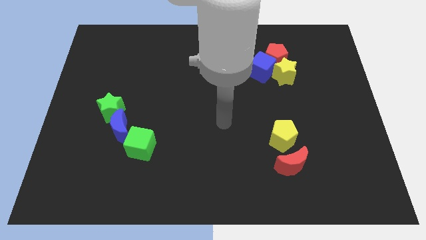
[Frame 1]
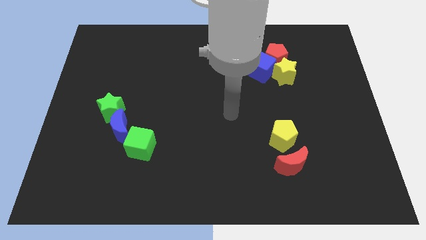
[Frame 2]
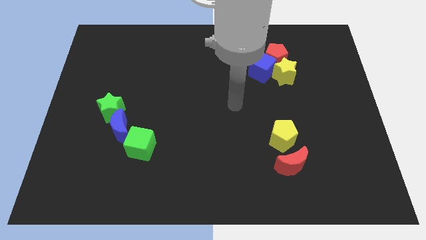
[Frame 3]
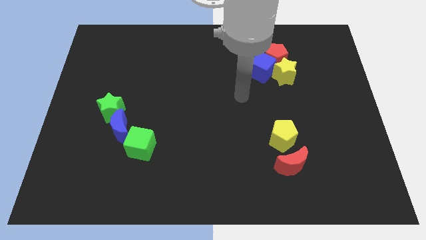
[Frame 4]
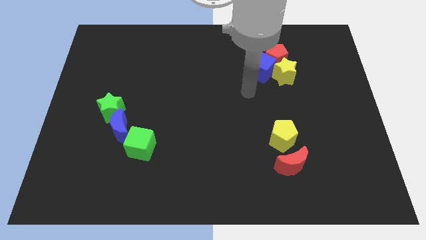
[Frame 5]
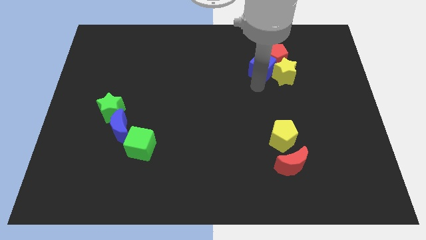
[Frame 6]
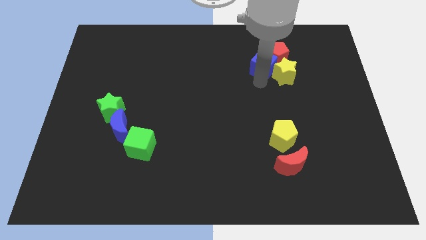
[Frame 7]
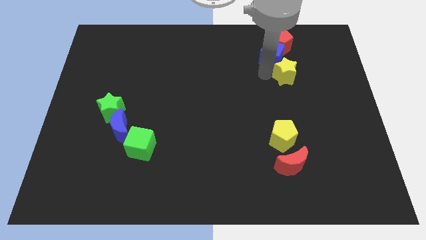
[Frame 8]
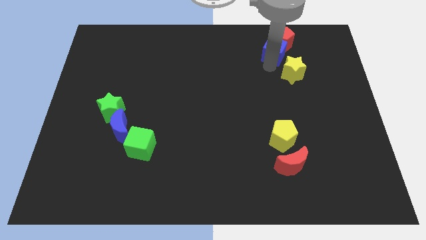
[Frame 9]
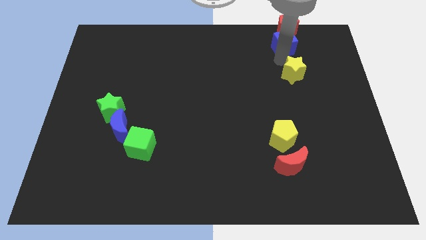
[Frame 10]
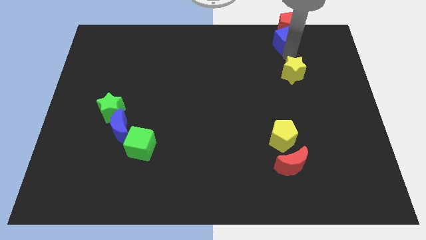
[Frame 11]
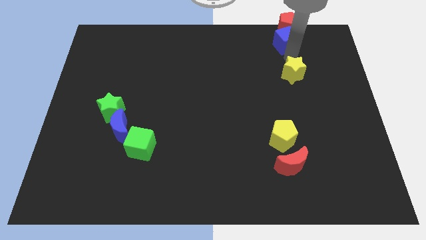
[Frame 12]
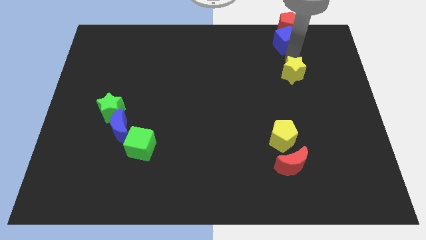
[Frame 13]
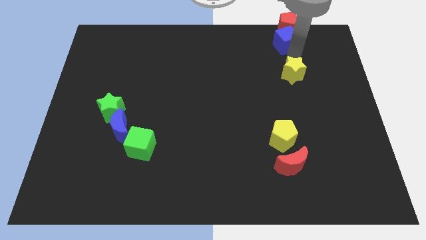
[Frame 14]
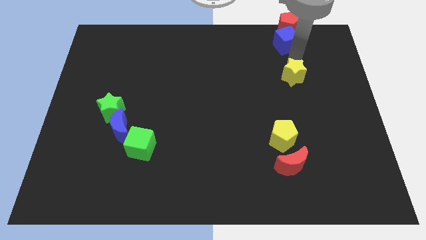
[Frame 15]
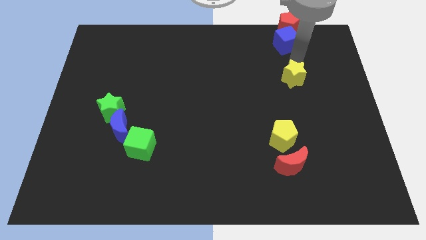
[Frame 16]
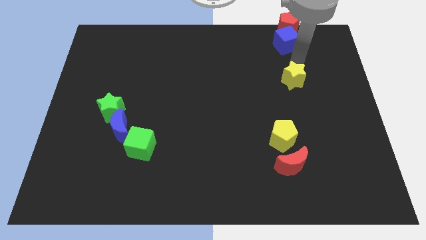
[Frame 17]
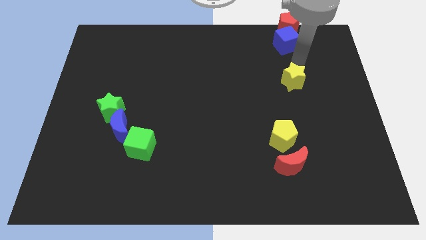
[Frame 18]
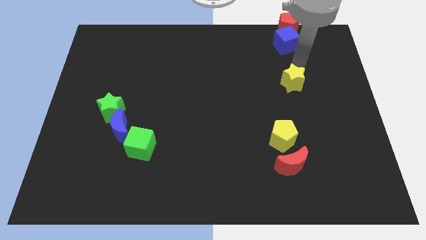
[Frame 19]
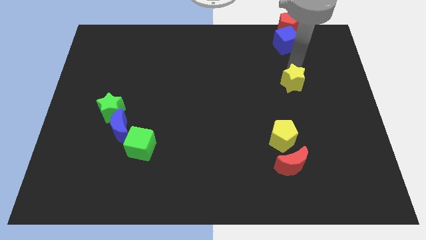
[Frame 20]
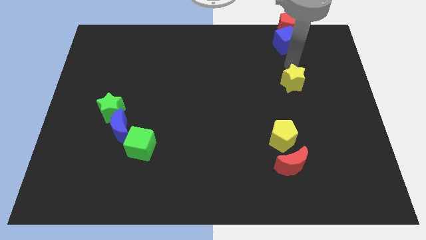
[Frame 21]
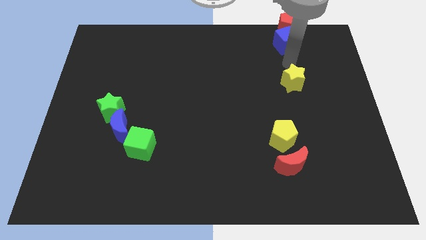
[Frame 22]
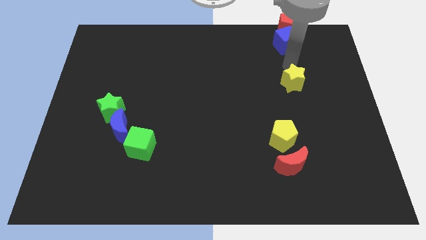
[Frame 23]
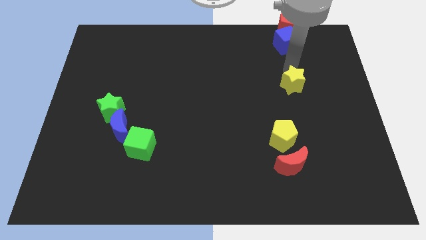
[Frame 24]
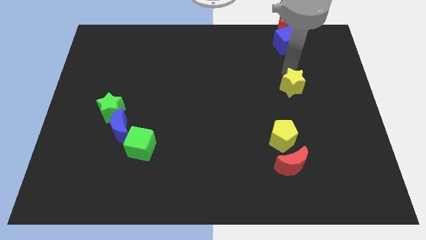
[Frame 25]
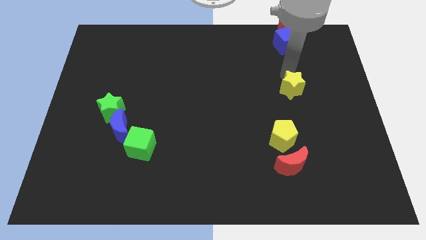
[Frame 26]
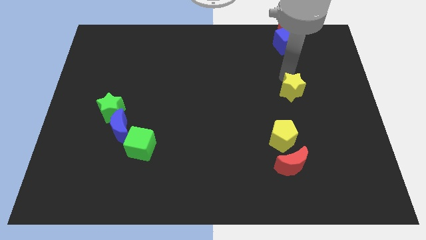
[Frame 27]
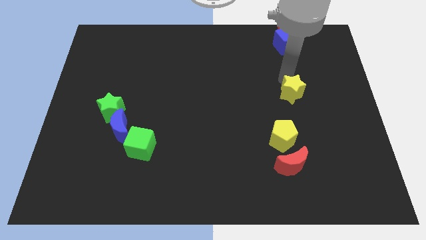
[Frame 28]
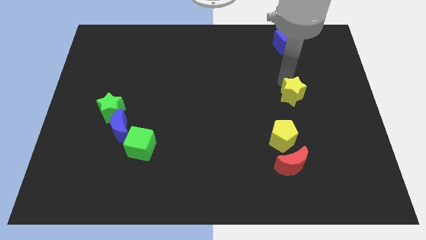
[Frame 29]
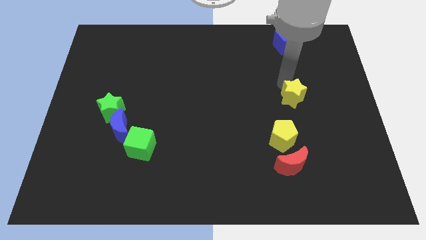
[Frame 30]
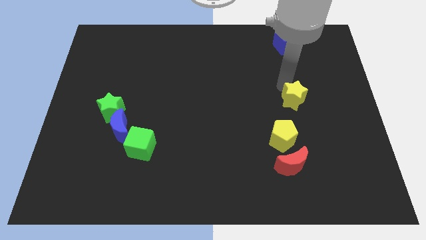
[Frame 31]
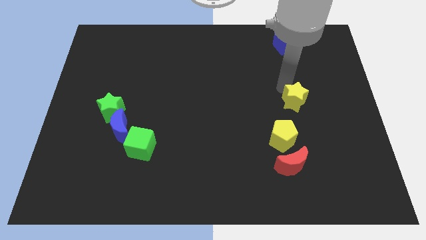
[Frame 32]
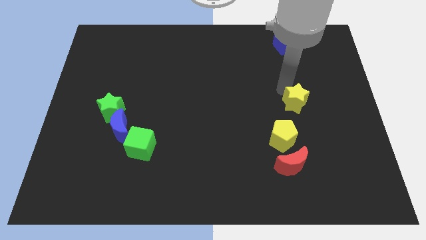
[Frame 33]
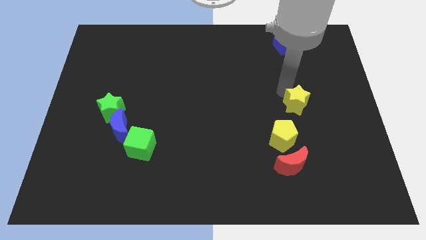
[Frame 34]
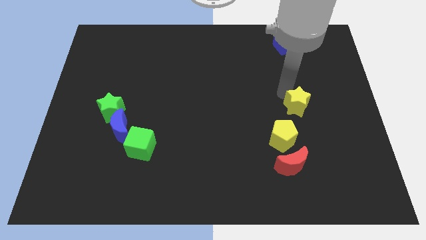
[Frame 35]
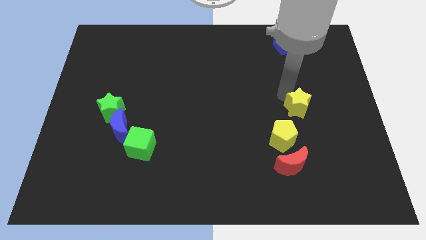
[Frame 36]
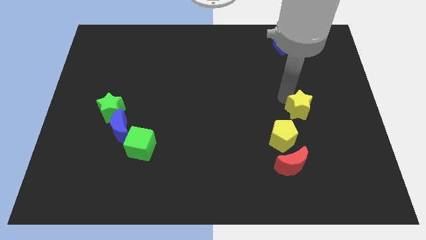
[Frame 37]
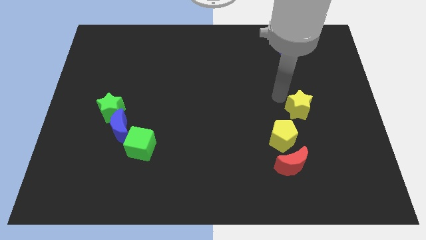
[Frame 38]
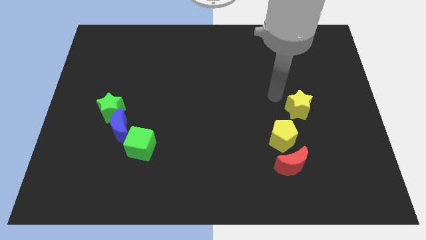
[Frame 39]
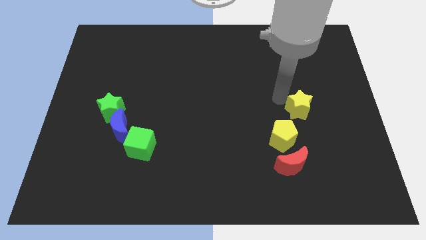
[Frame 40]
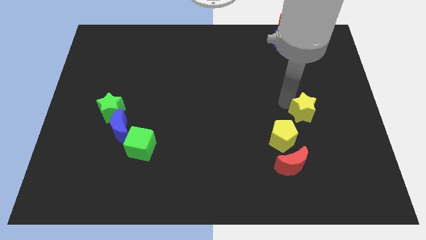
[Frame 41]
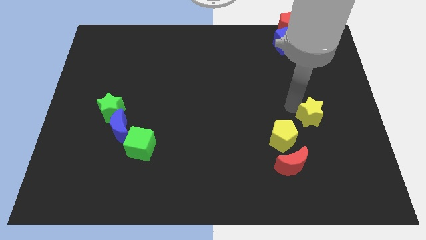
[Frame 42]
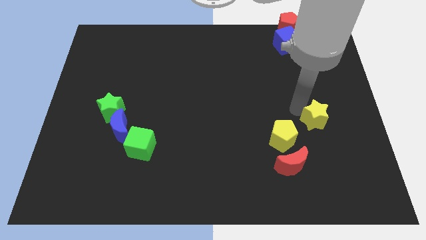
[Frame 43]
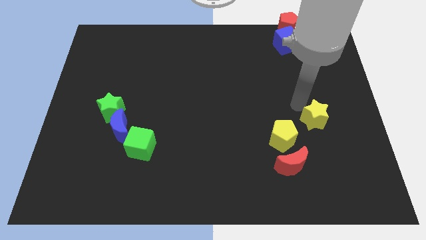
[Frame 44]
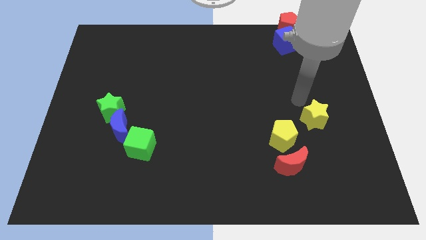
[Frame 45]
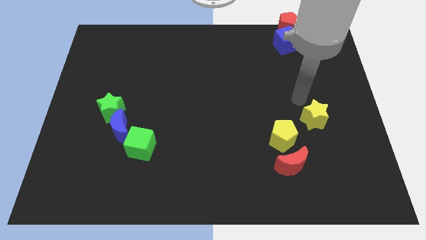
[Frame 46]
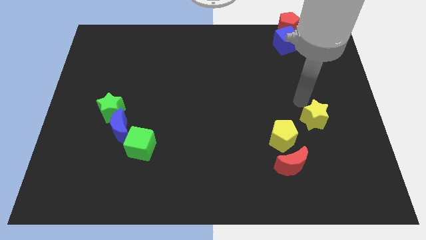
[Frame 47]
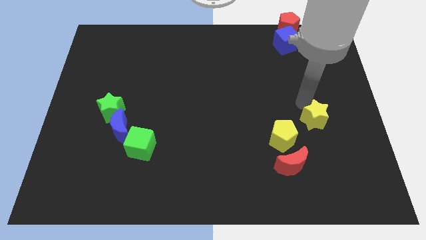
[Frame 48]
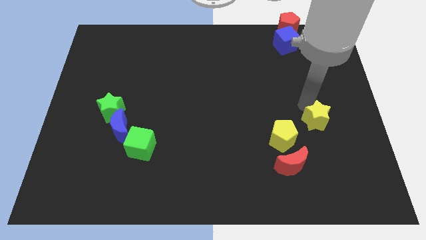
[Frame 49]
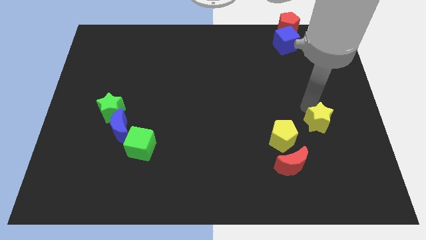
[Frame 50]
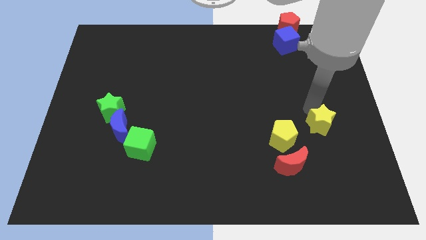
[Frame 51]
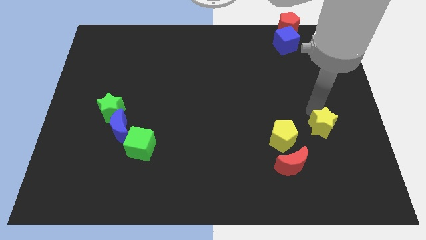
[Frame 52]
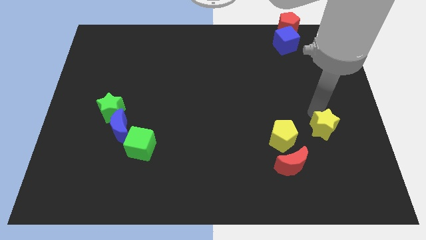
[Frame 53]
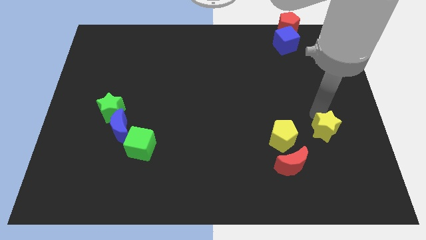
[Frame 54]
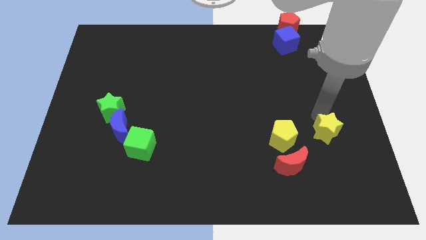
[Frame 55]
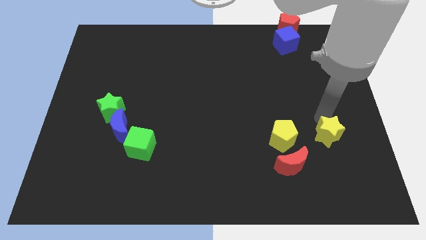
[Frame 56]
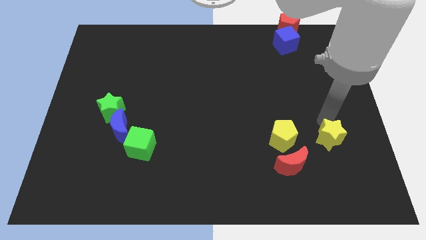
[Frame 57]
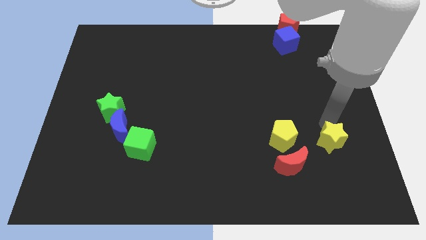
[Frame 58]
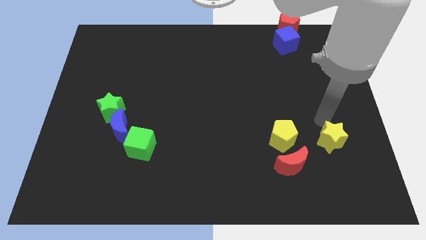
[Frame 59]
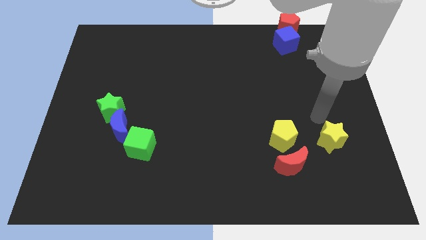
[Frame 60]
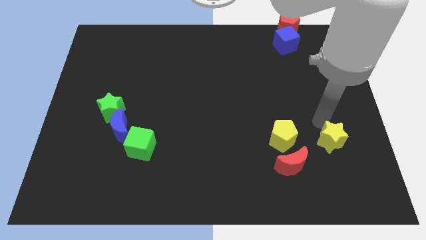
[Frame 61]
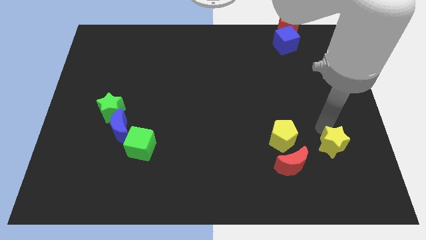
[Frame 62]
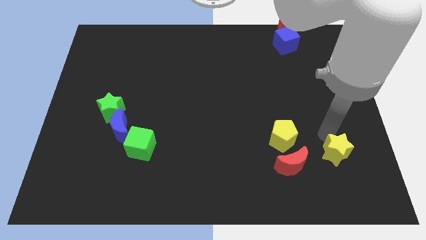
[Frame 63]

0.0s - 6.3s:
slide the yellow star to the right side of the red moon

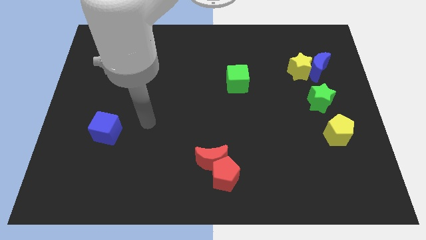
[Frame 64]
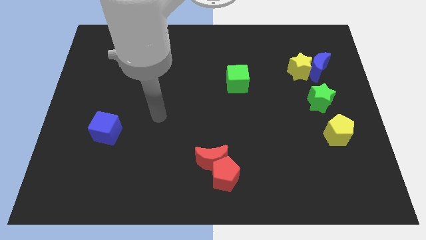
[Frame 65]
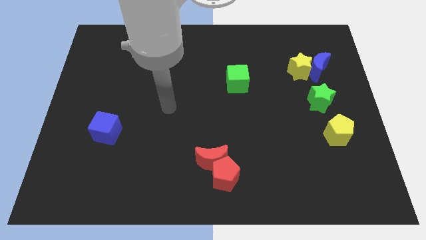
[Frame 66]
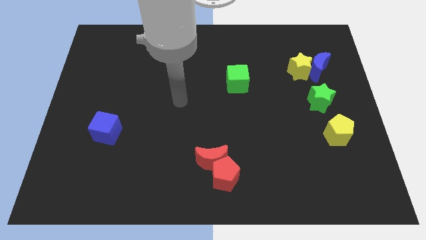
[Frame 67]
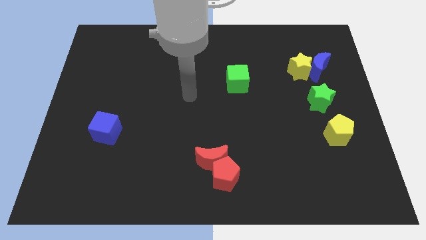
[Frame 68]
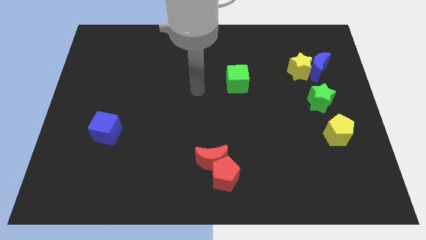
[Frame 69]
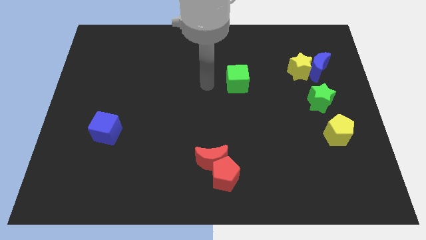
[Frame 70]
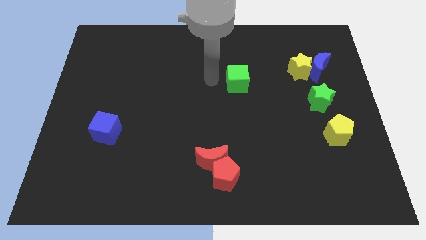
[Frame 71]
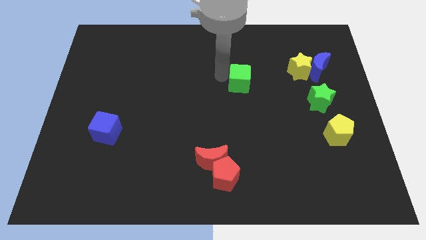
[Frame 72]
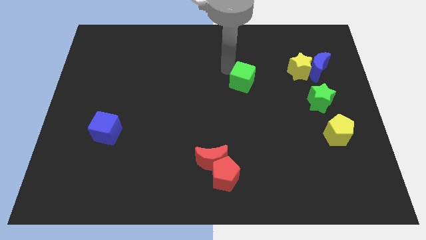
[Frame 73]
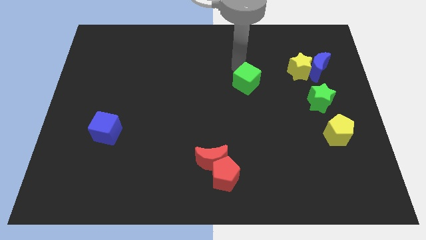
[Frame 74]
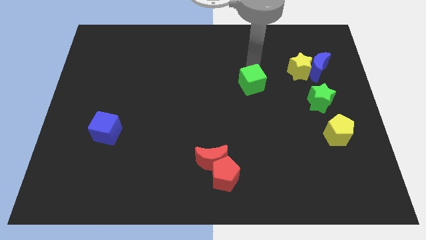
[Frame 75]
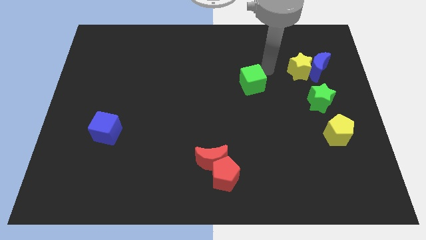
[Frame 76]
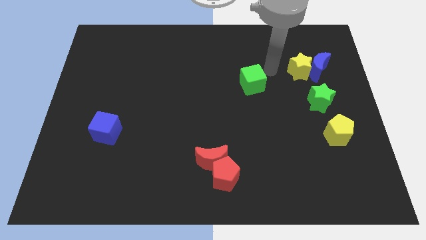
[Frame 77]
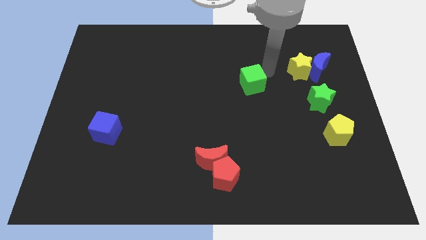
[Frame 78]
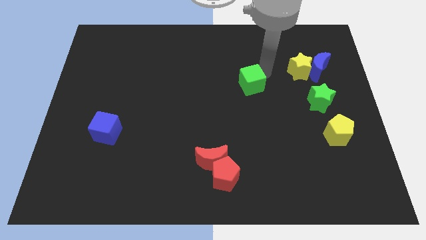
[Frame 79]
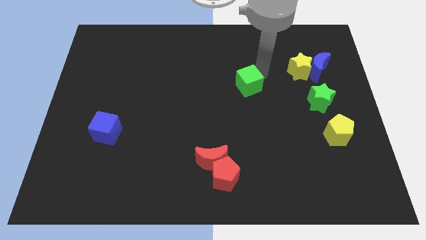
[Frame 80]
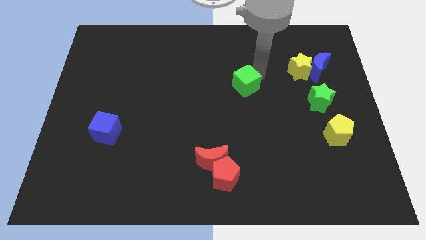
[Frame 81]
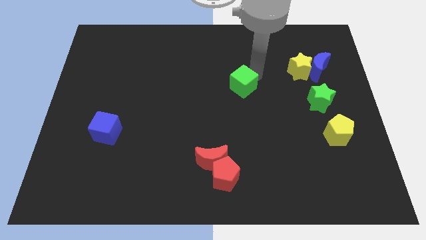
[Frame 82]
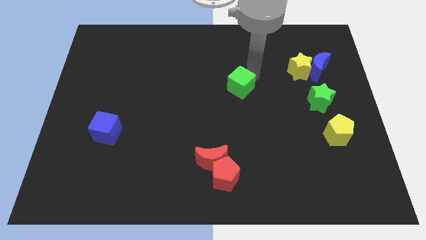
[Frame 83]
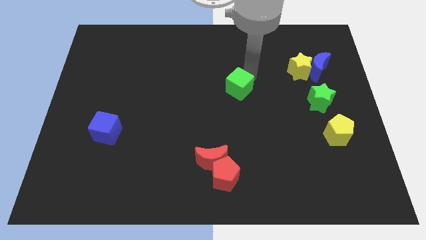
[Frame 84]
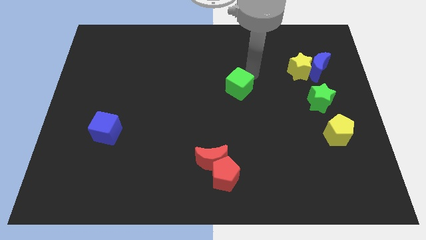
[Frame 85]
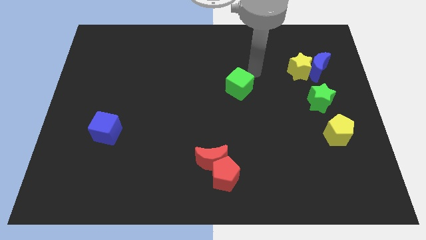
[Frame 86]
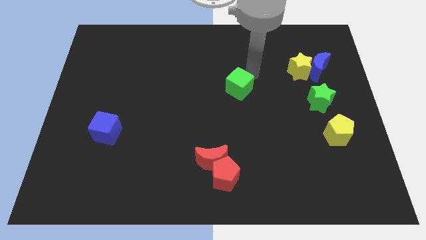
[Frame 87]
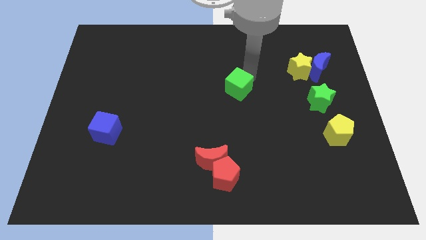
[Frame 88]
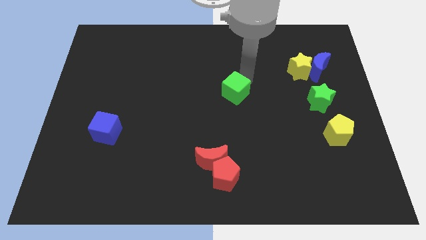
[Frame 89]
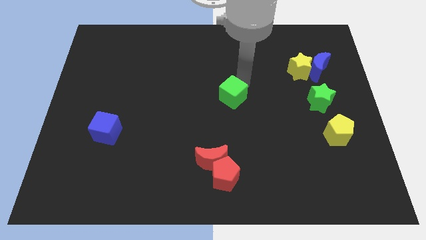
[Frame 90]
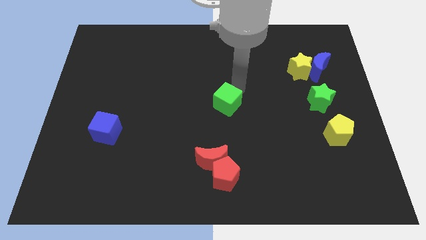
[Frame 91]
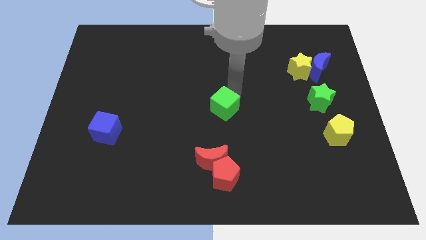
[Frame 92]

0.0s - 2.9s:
move the green cube to the top side of the red moon
